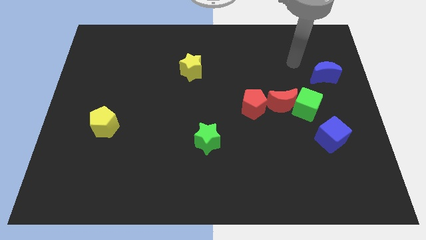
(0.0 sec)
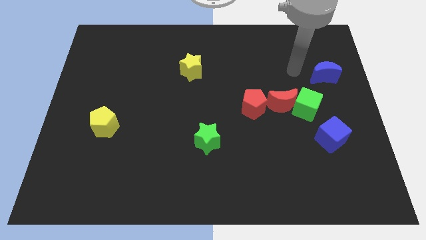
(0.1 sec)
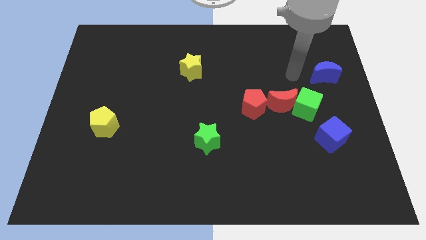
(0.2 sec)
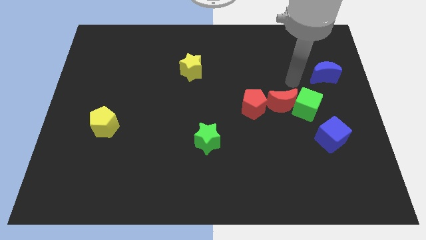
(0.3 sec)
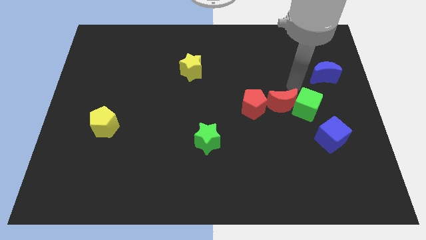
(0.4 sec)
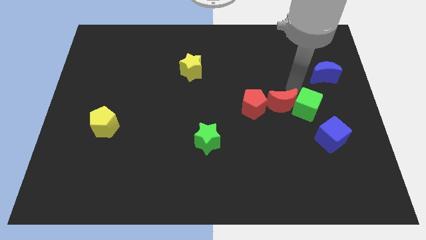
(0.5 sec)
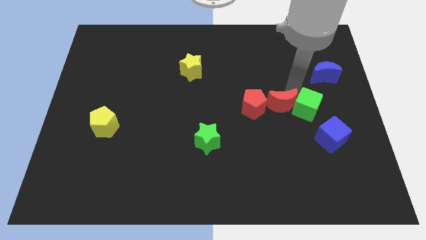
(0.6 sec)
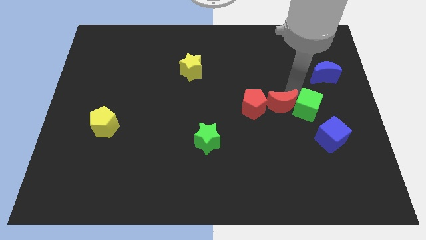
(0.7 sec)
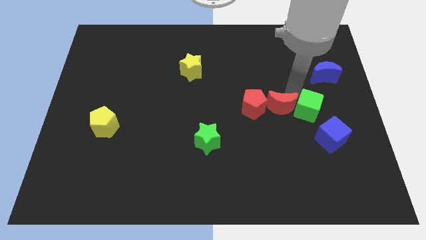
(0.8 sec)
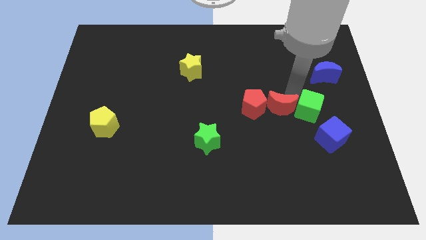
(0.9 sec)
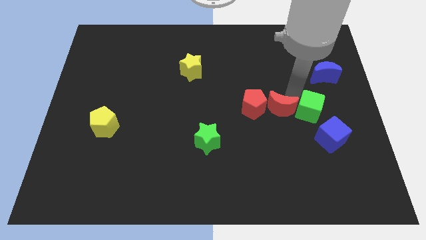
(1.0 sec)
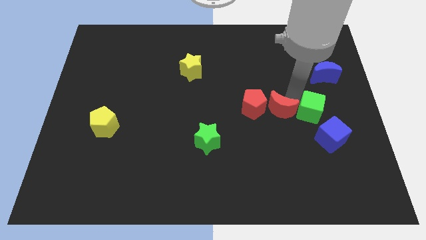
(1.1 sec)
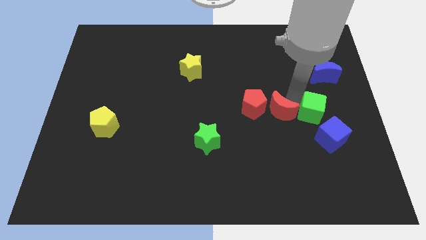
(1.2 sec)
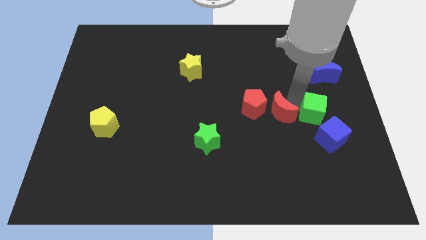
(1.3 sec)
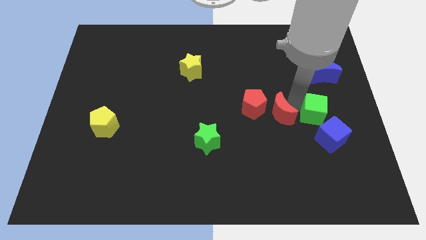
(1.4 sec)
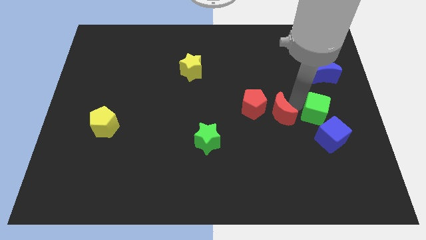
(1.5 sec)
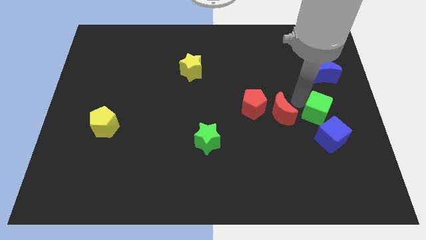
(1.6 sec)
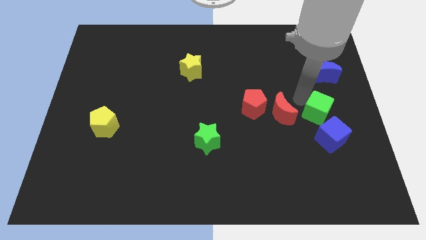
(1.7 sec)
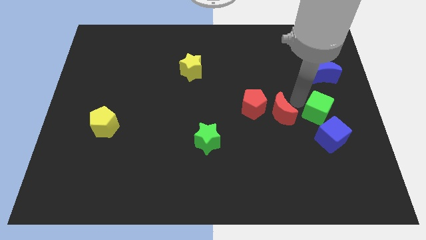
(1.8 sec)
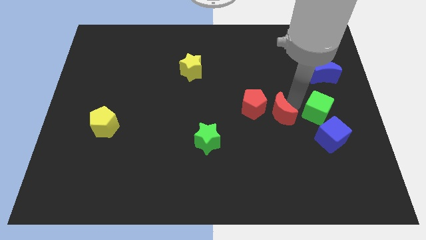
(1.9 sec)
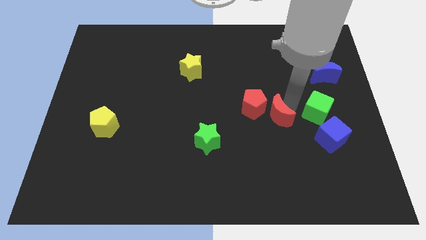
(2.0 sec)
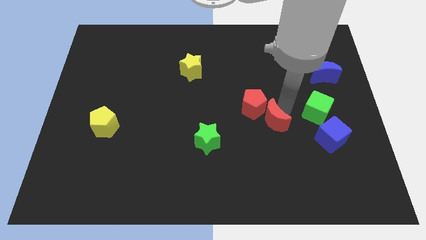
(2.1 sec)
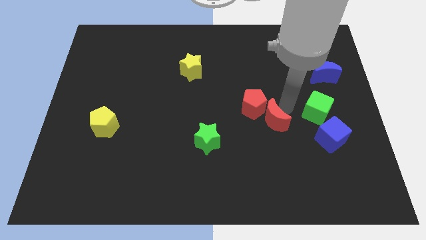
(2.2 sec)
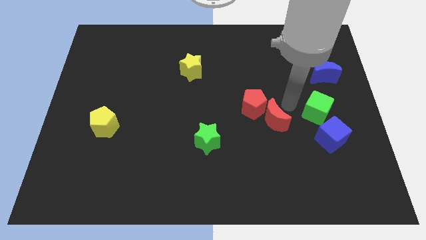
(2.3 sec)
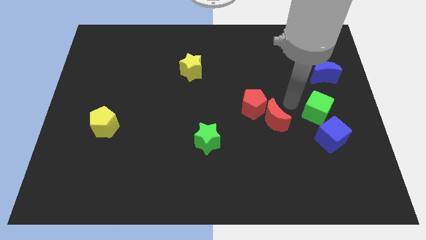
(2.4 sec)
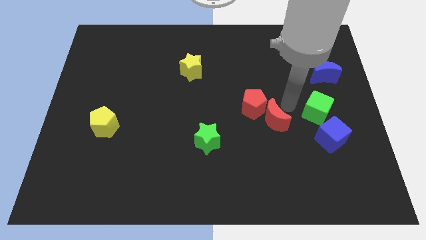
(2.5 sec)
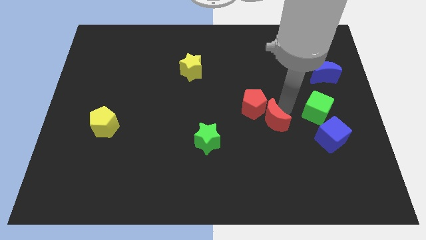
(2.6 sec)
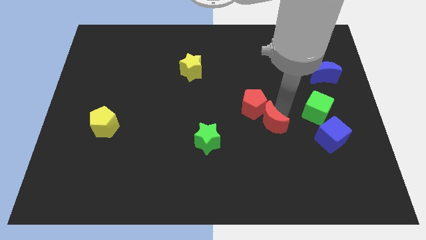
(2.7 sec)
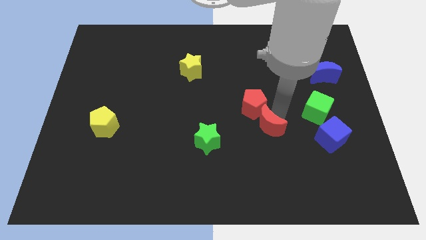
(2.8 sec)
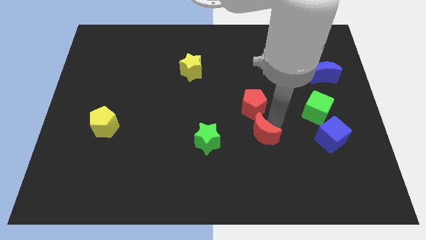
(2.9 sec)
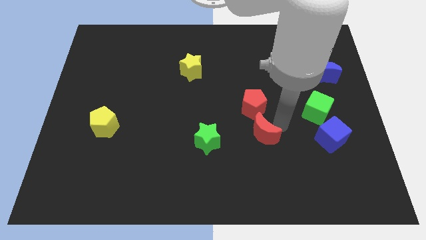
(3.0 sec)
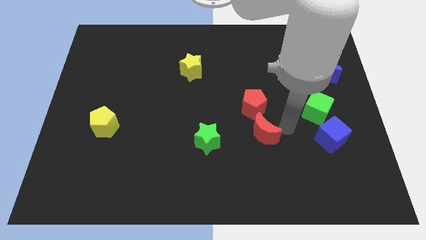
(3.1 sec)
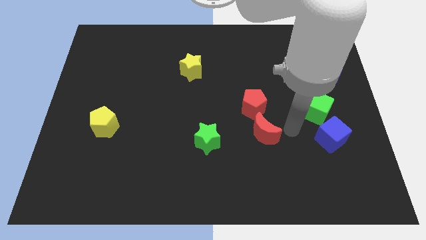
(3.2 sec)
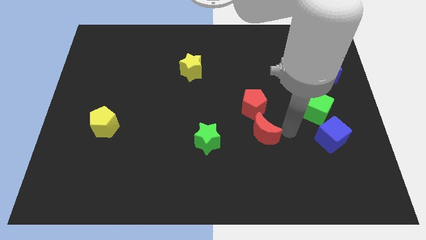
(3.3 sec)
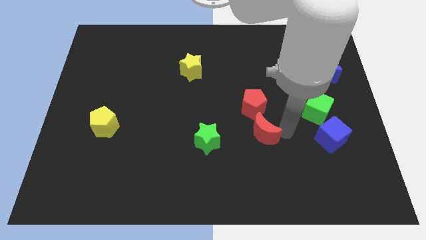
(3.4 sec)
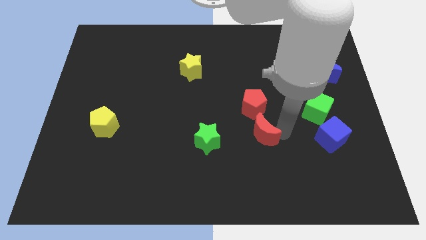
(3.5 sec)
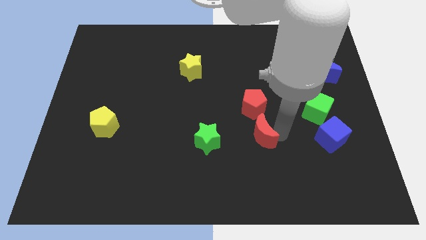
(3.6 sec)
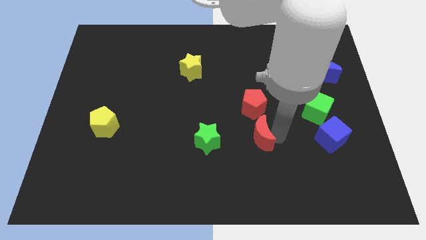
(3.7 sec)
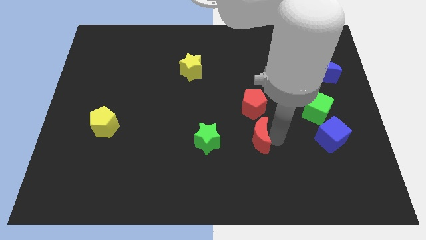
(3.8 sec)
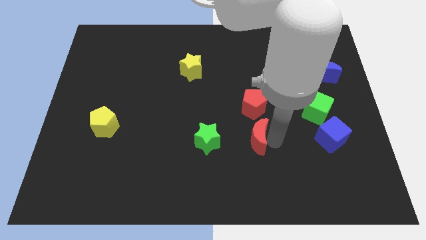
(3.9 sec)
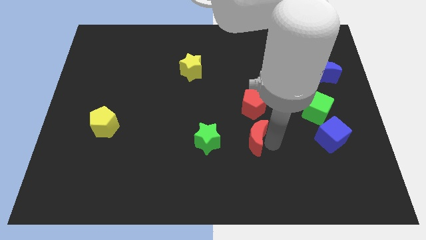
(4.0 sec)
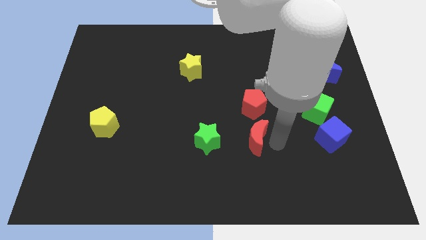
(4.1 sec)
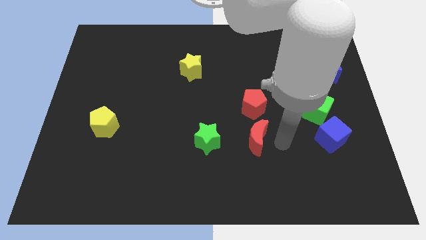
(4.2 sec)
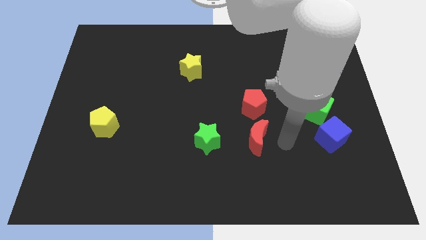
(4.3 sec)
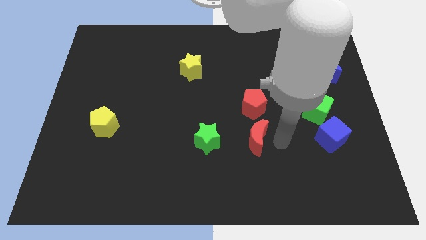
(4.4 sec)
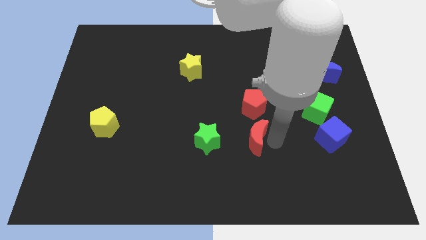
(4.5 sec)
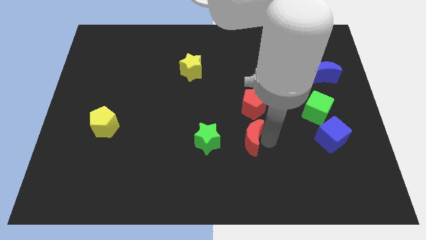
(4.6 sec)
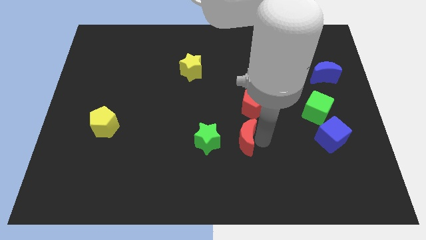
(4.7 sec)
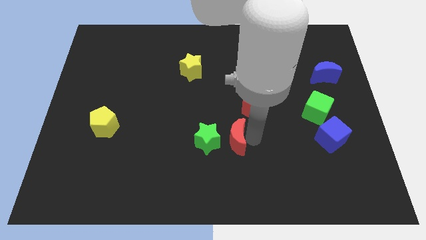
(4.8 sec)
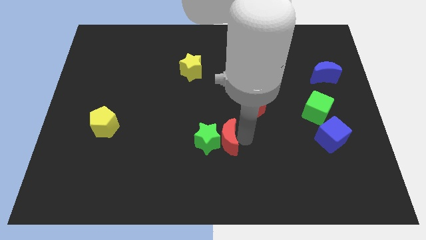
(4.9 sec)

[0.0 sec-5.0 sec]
move the red moon to the green star

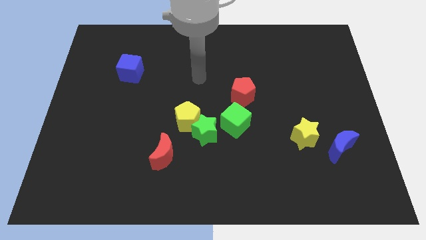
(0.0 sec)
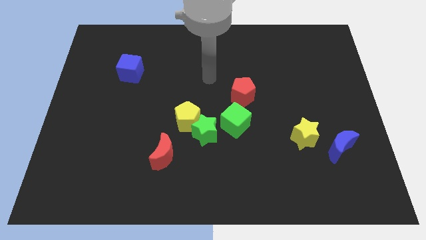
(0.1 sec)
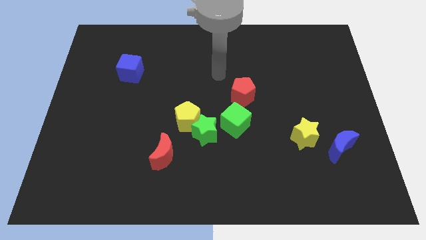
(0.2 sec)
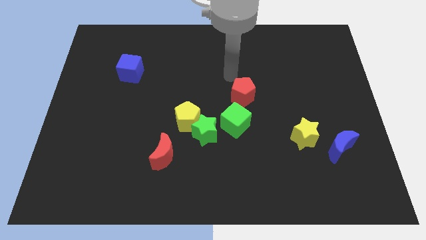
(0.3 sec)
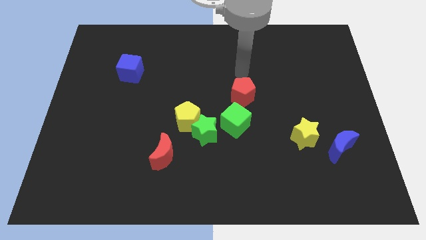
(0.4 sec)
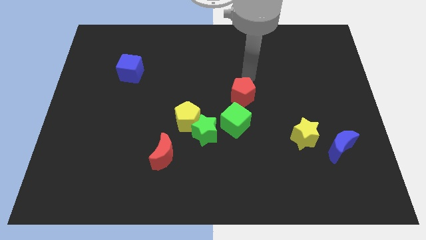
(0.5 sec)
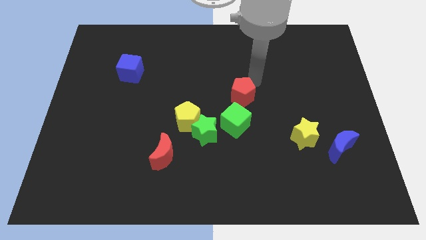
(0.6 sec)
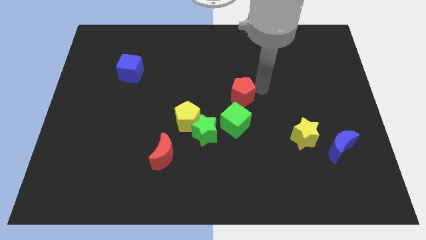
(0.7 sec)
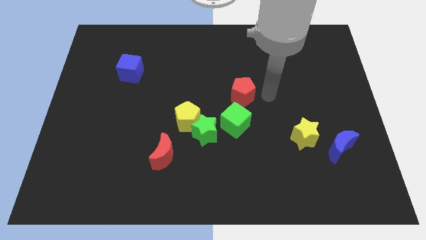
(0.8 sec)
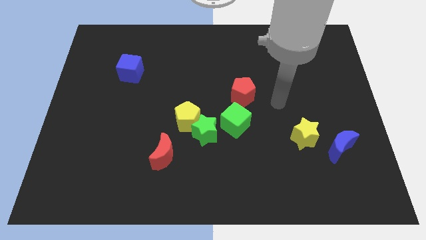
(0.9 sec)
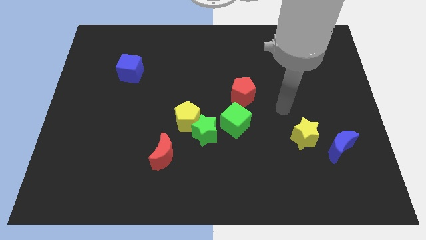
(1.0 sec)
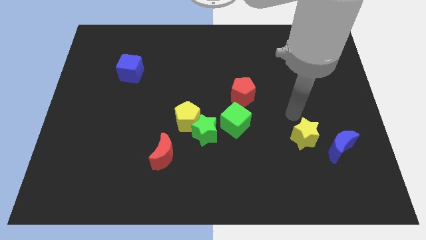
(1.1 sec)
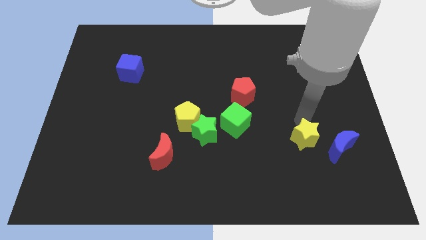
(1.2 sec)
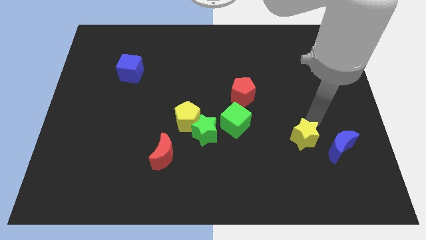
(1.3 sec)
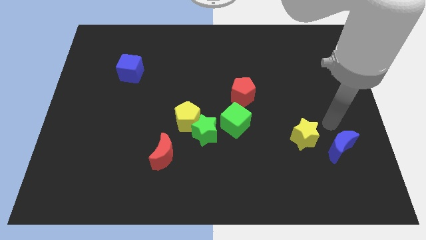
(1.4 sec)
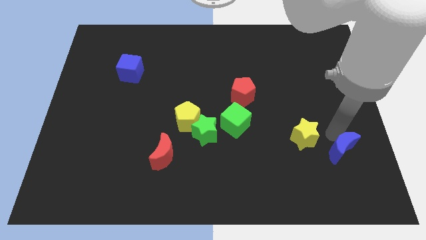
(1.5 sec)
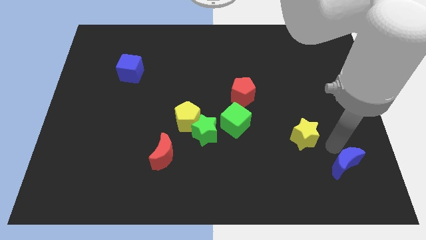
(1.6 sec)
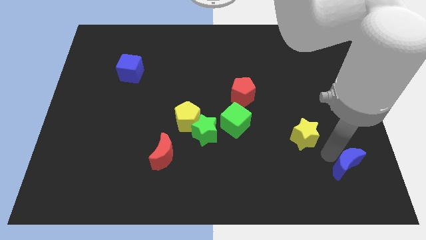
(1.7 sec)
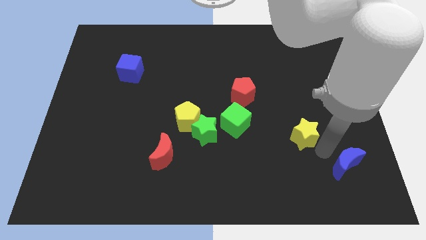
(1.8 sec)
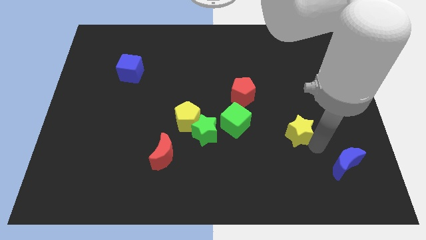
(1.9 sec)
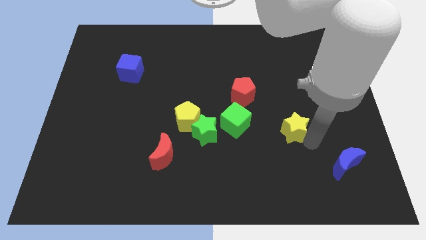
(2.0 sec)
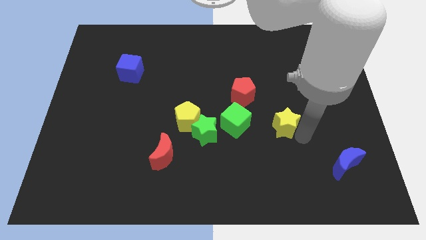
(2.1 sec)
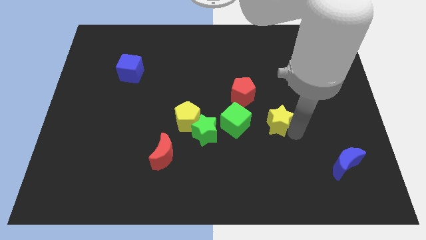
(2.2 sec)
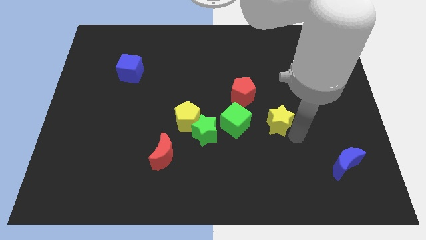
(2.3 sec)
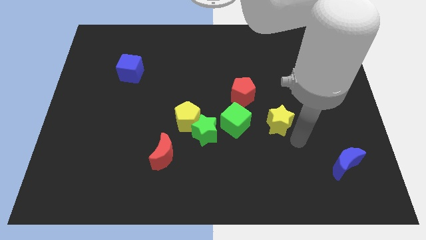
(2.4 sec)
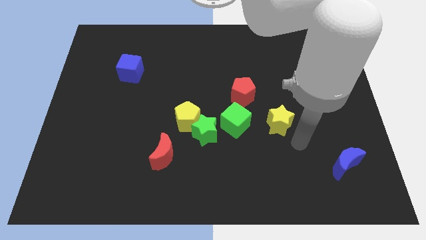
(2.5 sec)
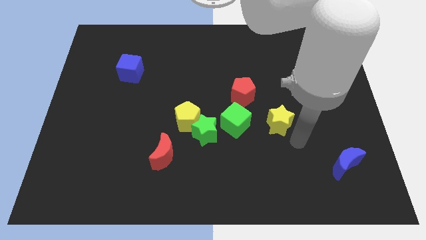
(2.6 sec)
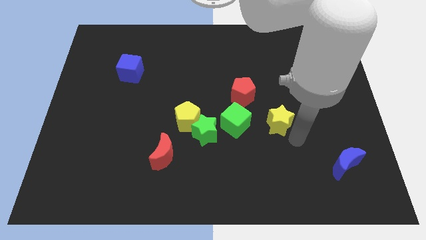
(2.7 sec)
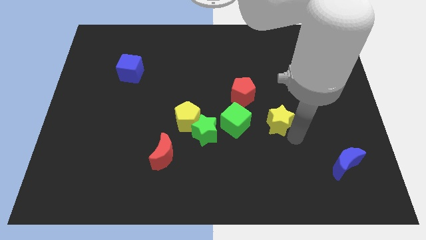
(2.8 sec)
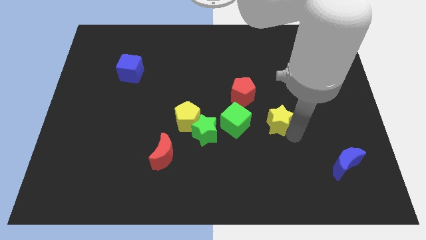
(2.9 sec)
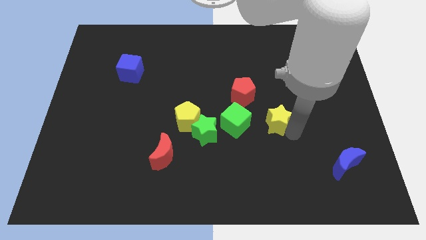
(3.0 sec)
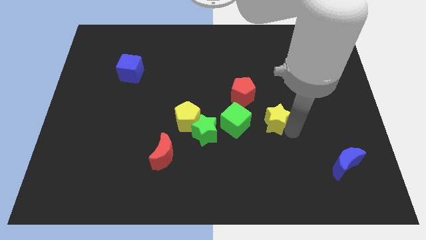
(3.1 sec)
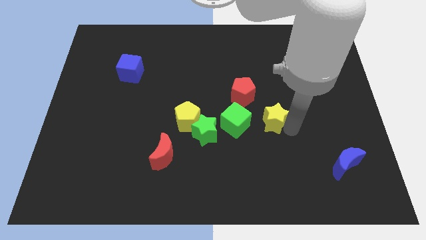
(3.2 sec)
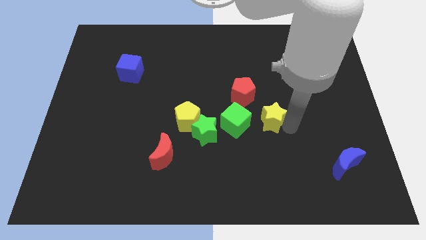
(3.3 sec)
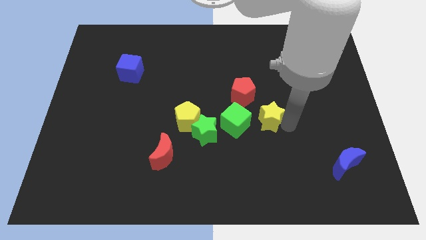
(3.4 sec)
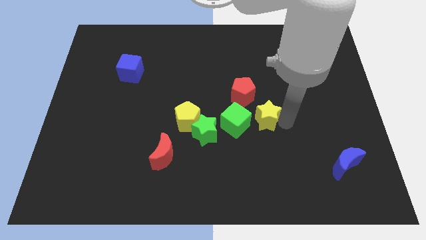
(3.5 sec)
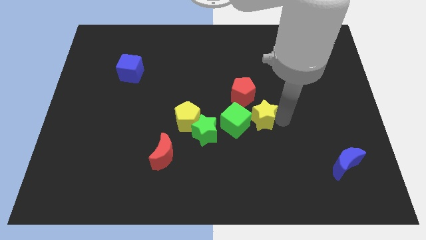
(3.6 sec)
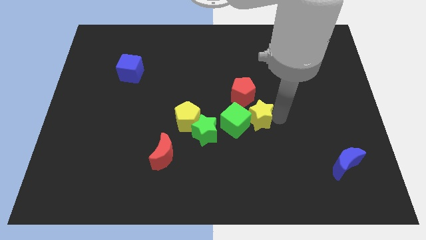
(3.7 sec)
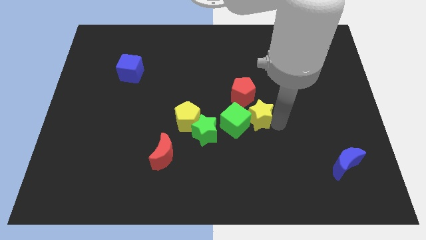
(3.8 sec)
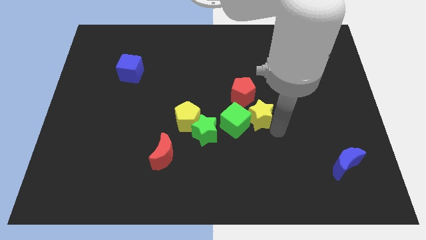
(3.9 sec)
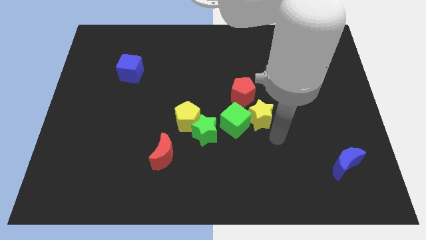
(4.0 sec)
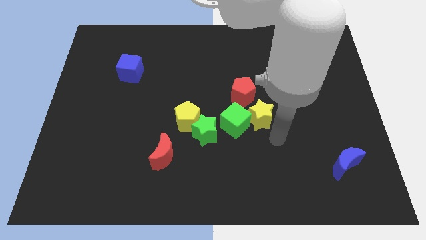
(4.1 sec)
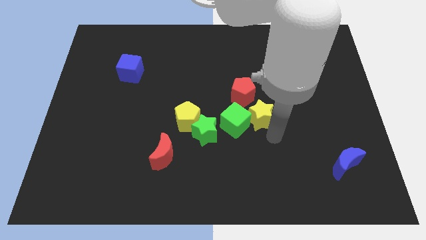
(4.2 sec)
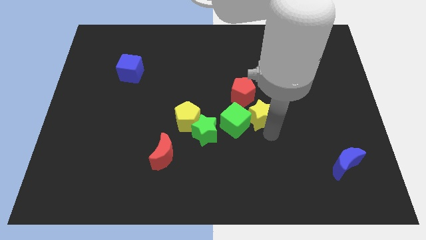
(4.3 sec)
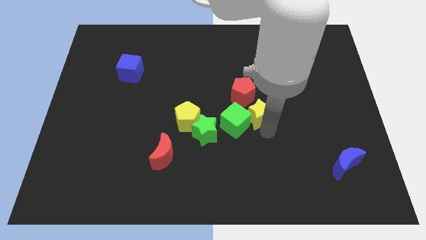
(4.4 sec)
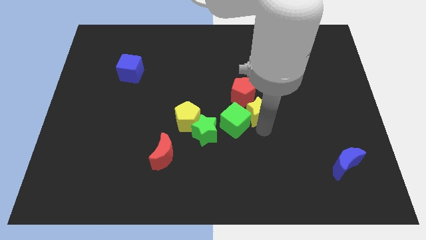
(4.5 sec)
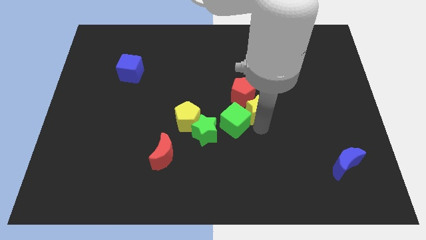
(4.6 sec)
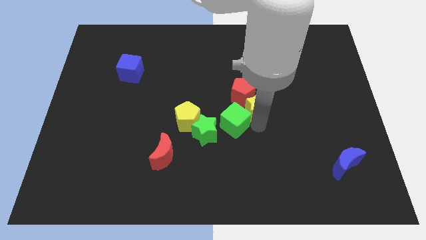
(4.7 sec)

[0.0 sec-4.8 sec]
put the yellow star towards the red pentagon
